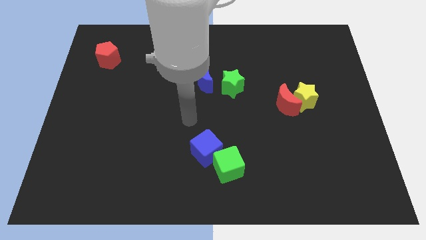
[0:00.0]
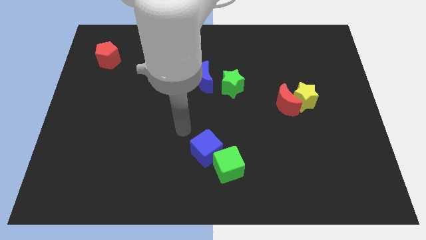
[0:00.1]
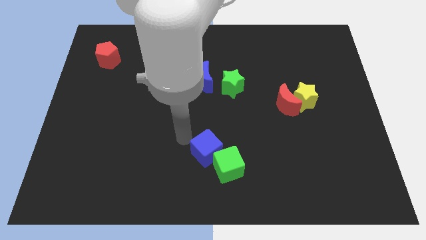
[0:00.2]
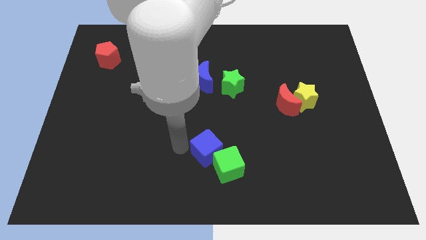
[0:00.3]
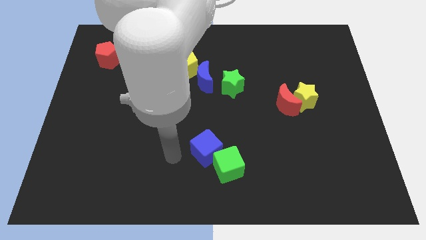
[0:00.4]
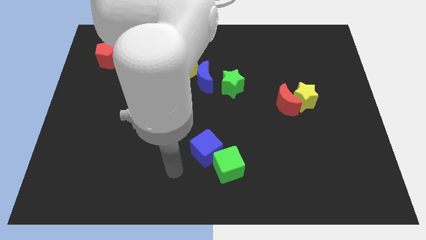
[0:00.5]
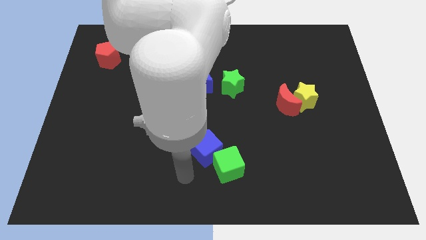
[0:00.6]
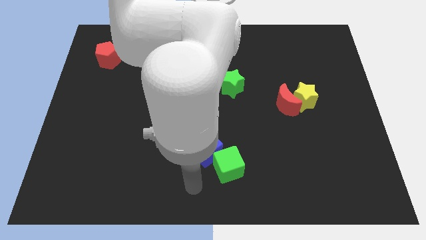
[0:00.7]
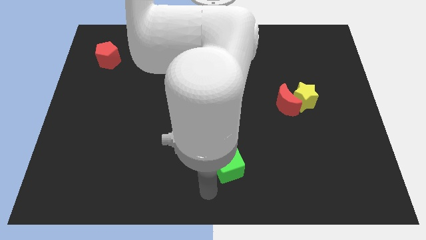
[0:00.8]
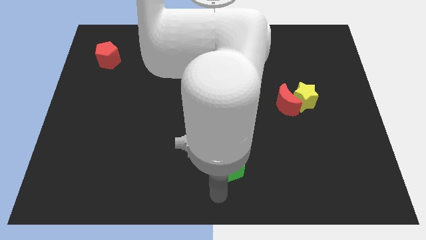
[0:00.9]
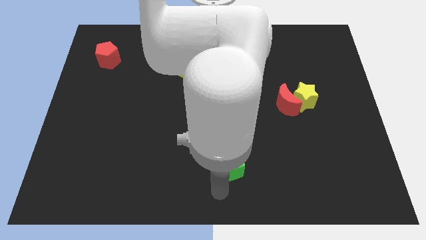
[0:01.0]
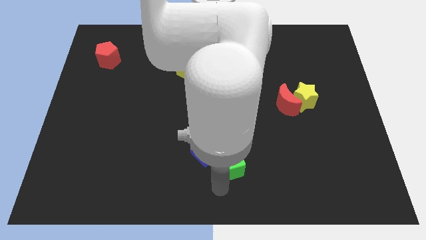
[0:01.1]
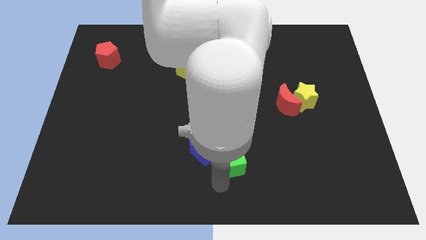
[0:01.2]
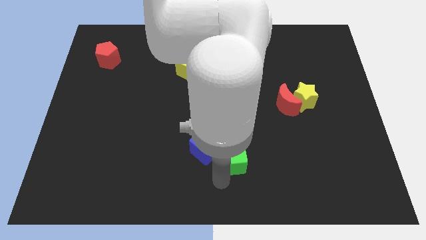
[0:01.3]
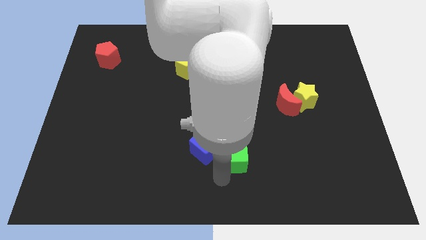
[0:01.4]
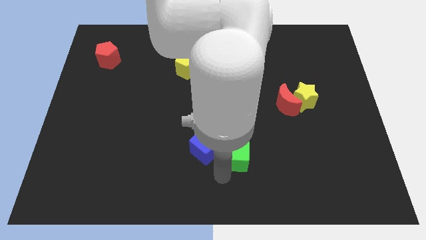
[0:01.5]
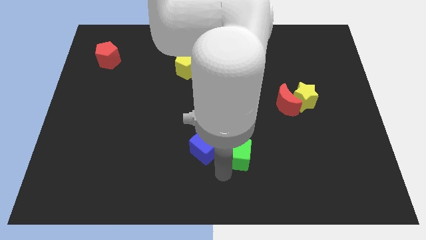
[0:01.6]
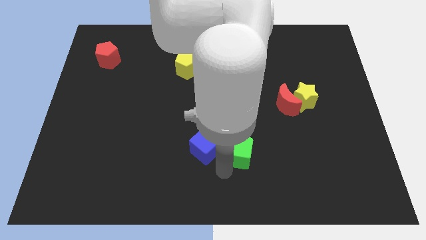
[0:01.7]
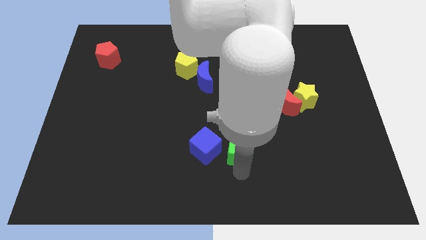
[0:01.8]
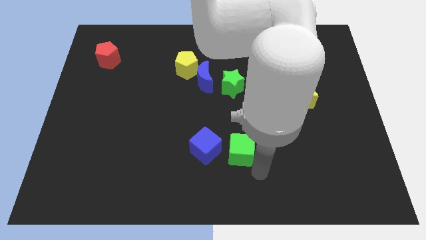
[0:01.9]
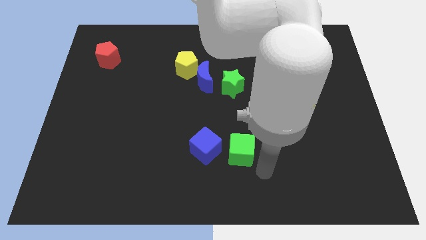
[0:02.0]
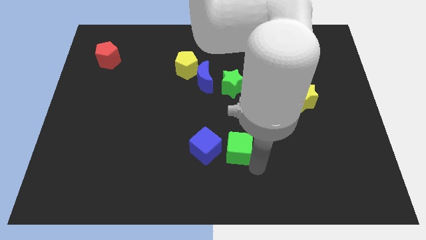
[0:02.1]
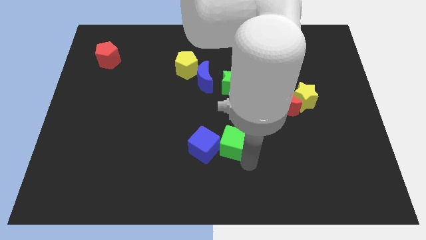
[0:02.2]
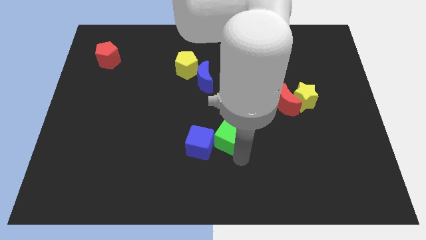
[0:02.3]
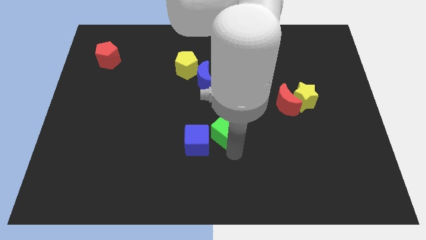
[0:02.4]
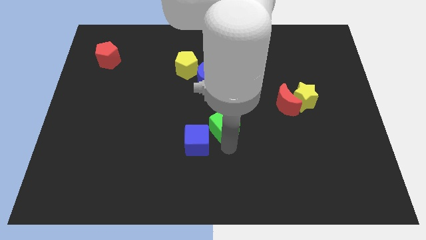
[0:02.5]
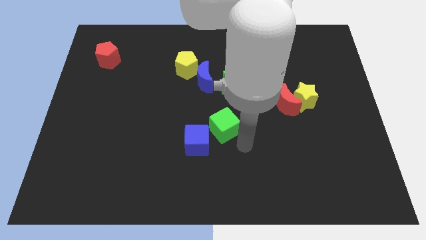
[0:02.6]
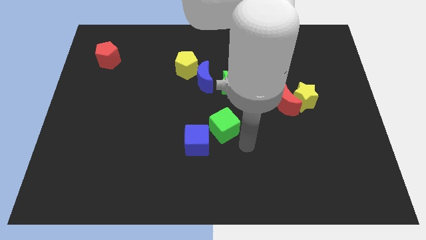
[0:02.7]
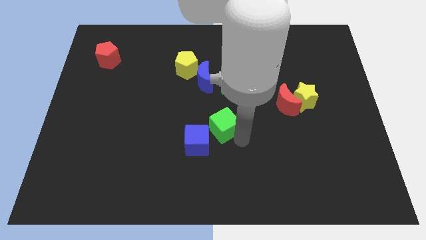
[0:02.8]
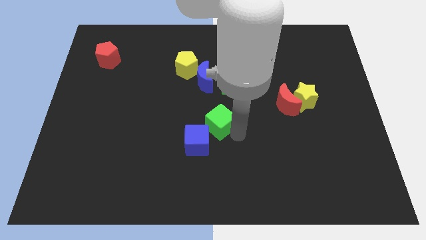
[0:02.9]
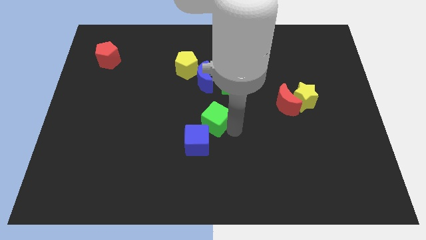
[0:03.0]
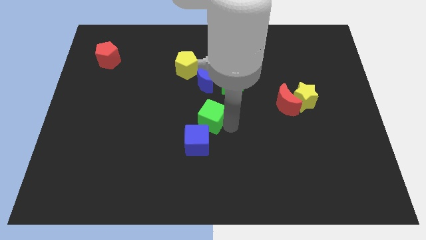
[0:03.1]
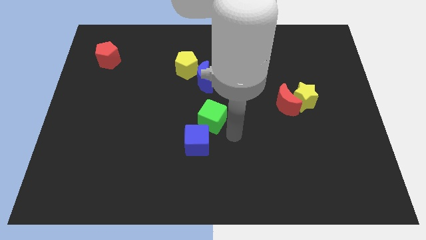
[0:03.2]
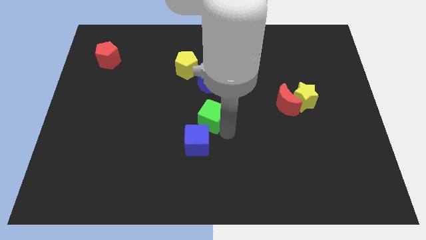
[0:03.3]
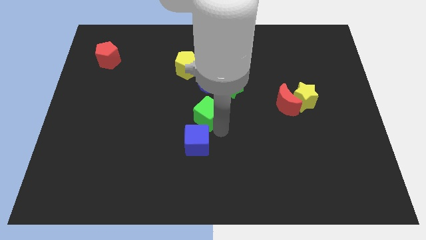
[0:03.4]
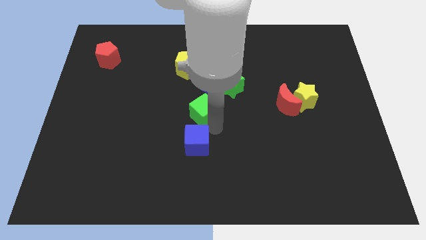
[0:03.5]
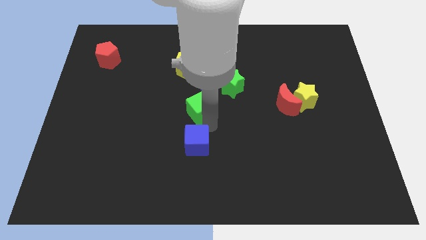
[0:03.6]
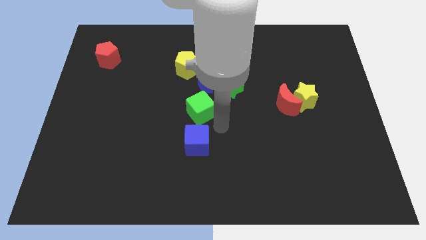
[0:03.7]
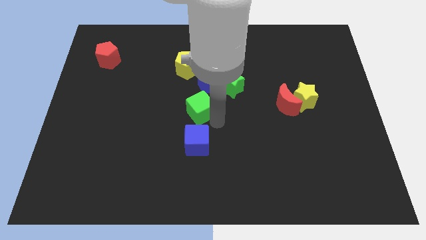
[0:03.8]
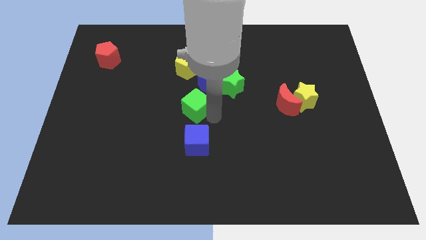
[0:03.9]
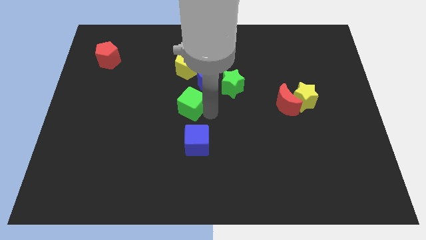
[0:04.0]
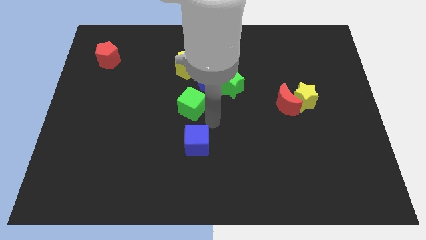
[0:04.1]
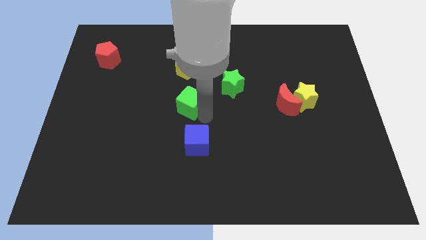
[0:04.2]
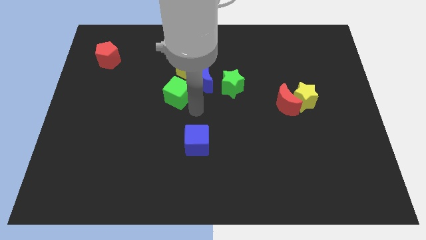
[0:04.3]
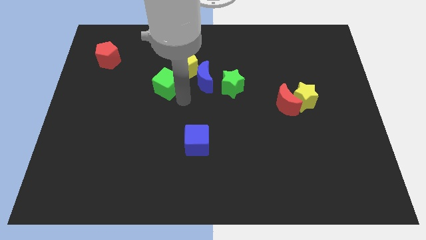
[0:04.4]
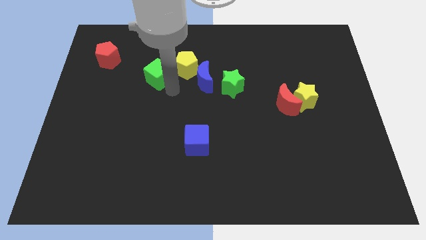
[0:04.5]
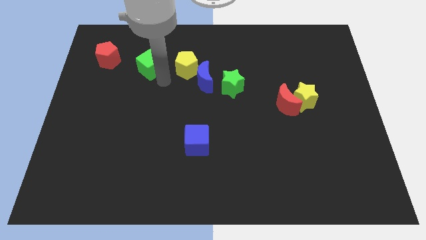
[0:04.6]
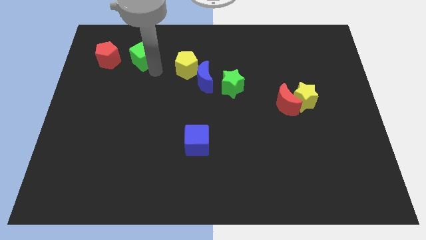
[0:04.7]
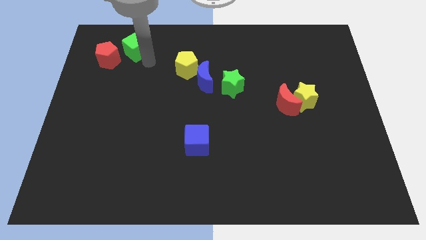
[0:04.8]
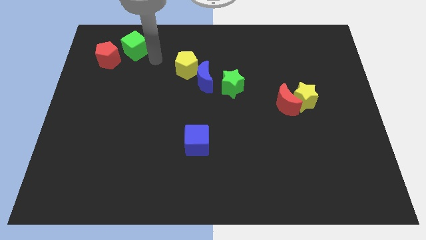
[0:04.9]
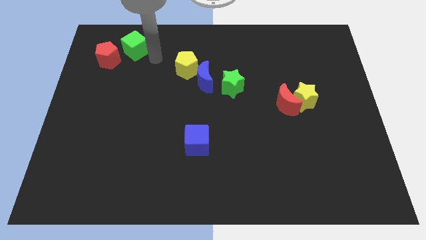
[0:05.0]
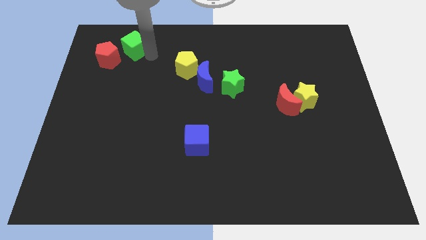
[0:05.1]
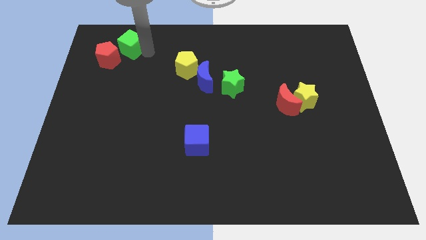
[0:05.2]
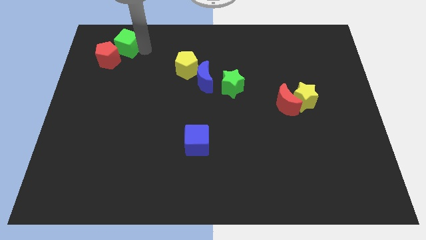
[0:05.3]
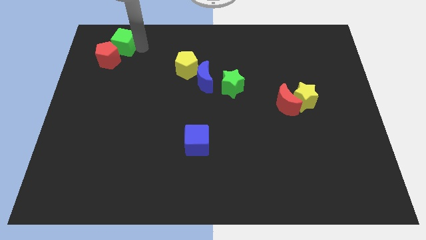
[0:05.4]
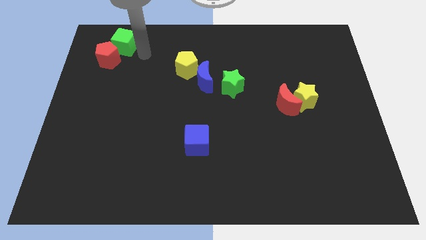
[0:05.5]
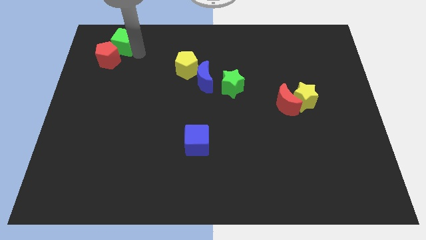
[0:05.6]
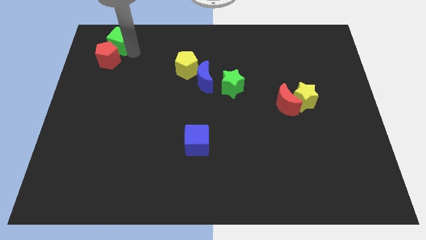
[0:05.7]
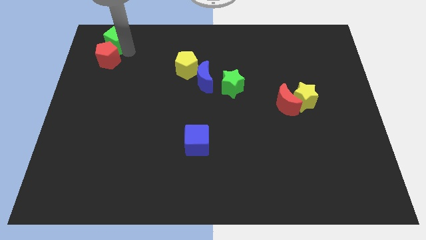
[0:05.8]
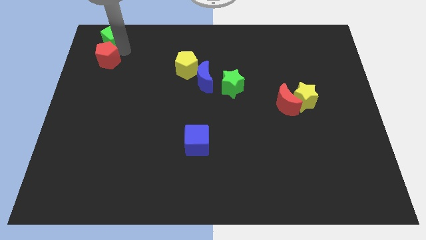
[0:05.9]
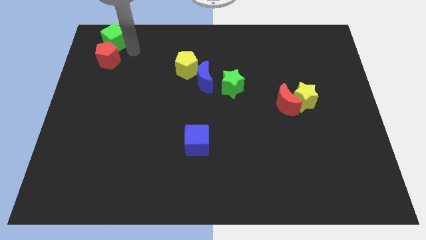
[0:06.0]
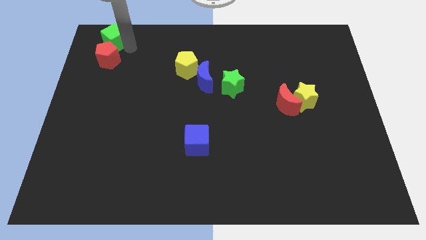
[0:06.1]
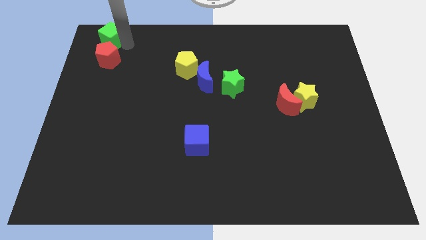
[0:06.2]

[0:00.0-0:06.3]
put the green cube to the top left
